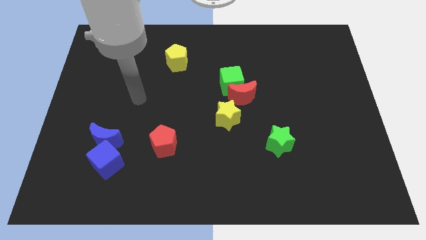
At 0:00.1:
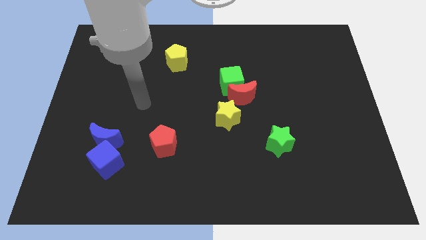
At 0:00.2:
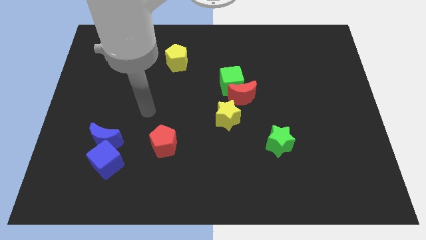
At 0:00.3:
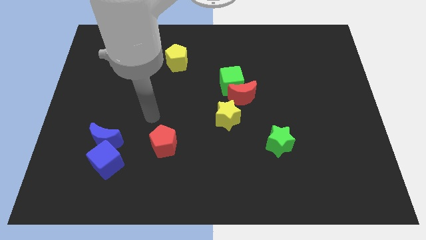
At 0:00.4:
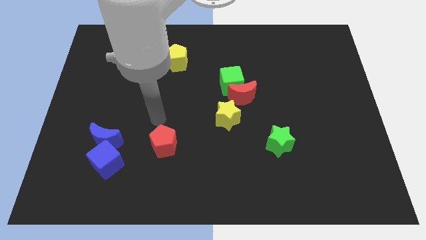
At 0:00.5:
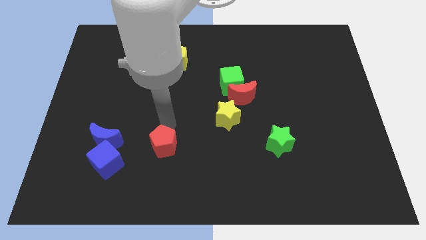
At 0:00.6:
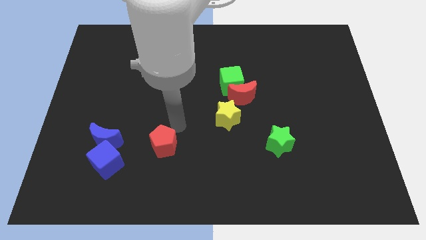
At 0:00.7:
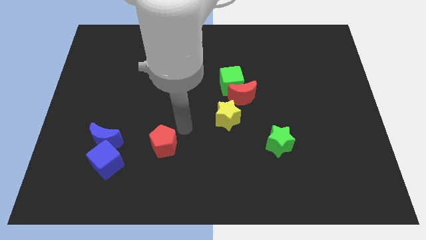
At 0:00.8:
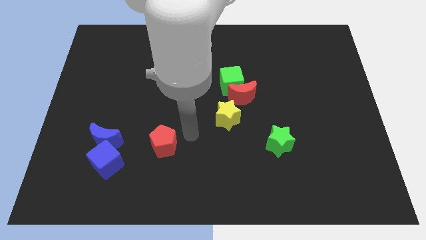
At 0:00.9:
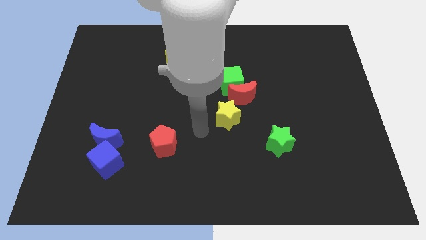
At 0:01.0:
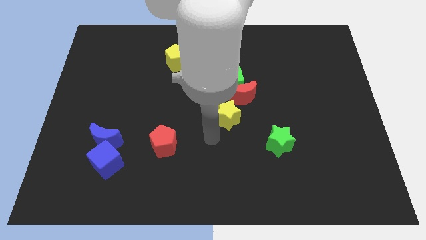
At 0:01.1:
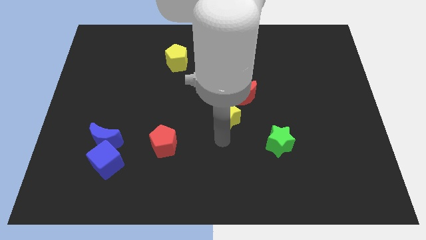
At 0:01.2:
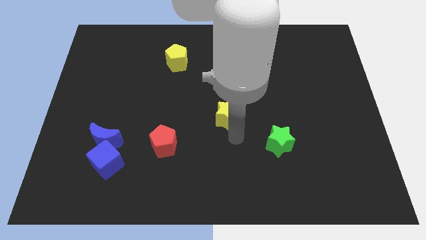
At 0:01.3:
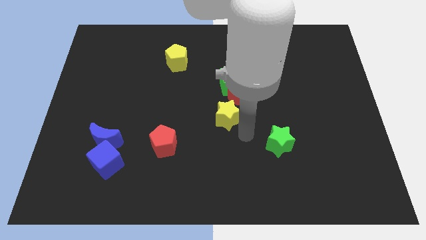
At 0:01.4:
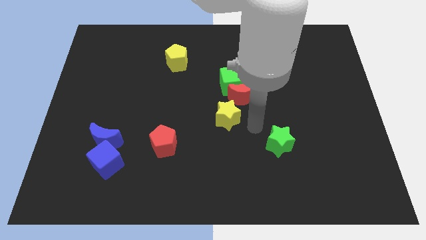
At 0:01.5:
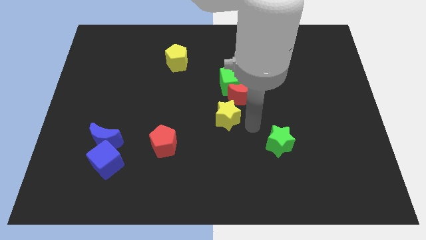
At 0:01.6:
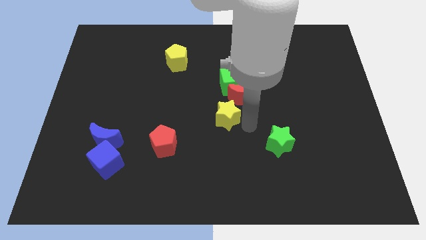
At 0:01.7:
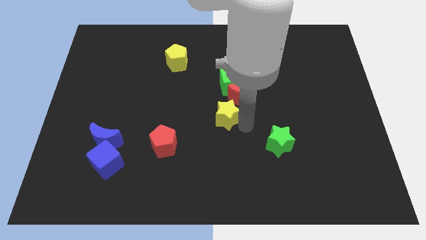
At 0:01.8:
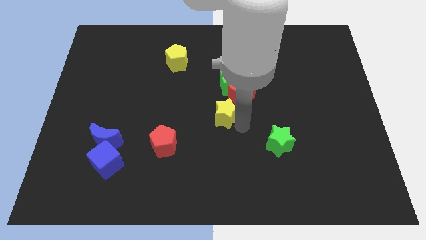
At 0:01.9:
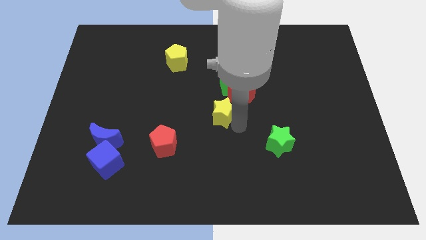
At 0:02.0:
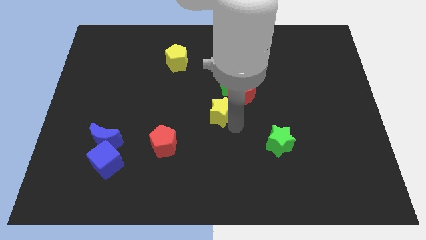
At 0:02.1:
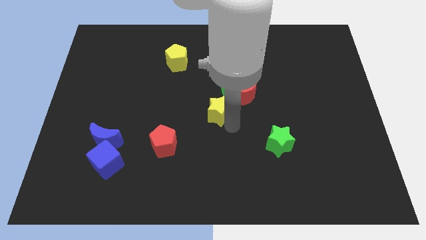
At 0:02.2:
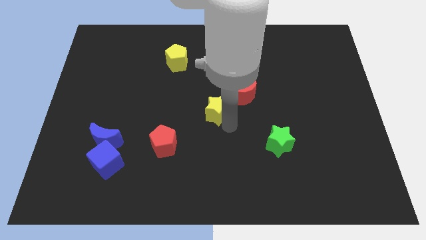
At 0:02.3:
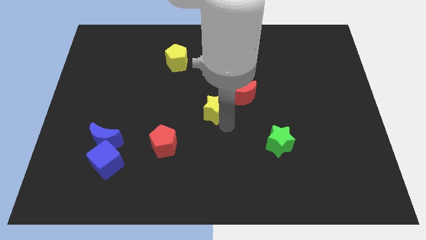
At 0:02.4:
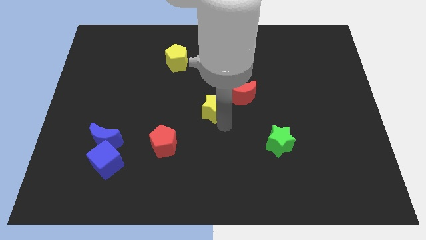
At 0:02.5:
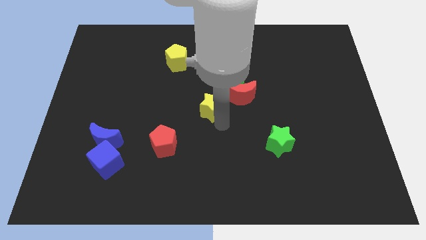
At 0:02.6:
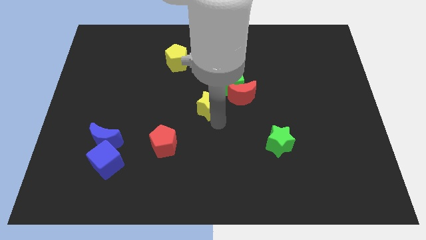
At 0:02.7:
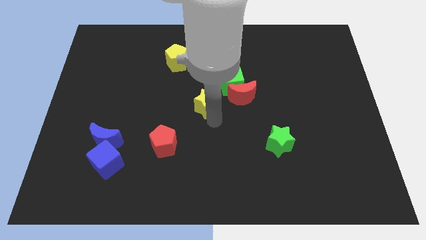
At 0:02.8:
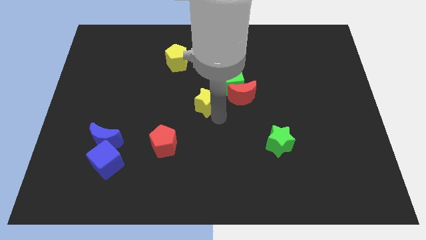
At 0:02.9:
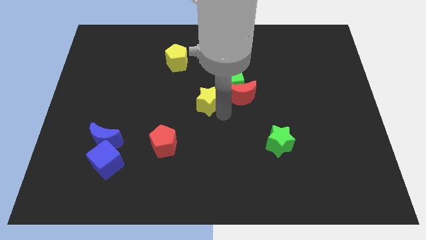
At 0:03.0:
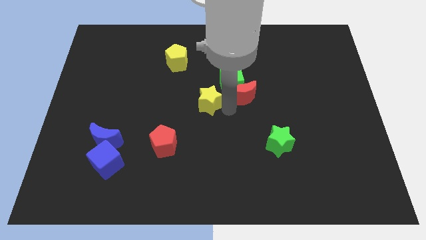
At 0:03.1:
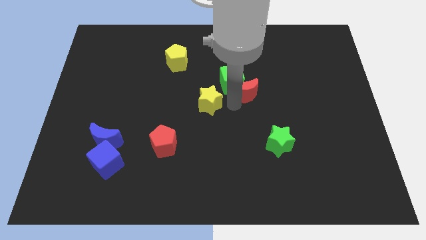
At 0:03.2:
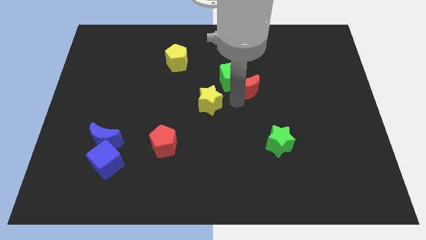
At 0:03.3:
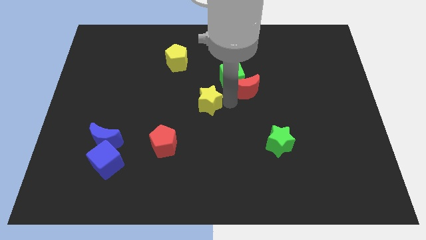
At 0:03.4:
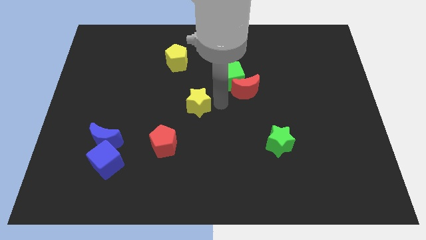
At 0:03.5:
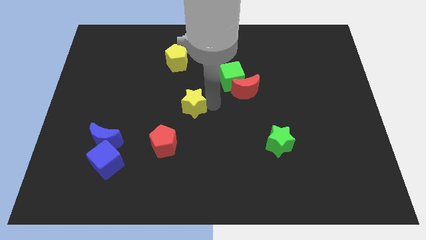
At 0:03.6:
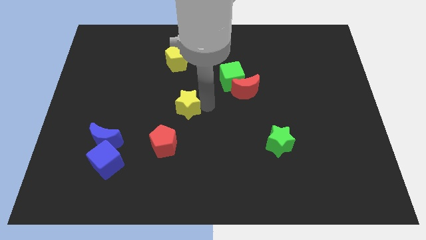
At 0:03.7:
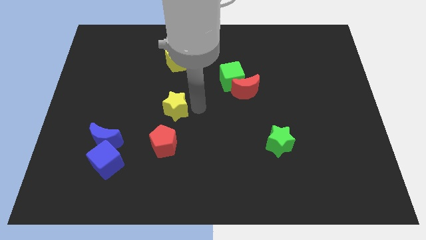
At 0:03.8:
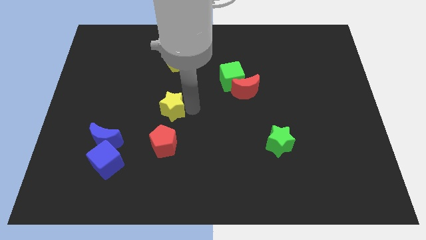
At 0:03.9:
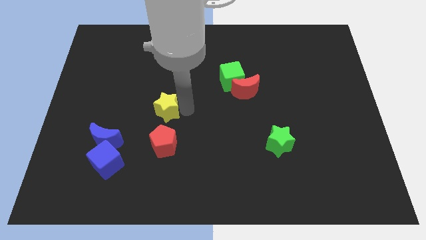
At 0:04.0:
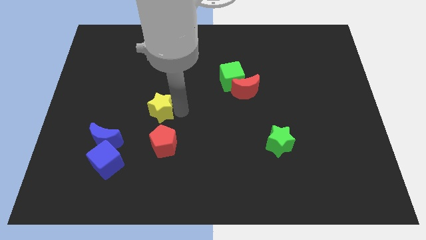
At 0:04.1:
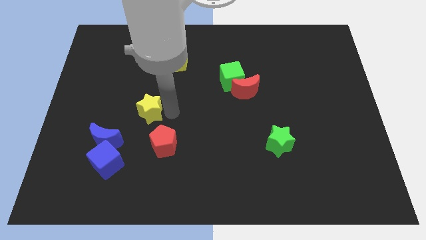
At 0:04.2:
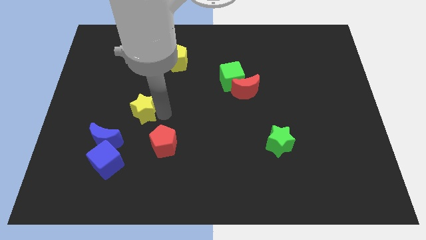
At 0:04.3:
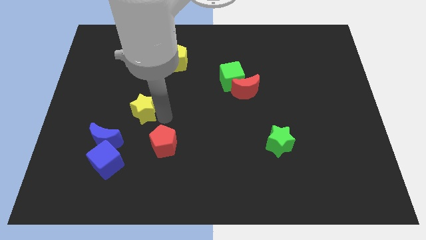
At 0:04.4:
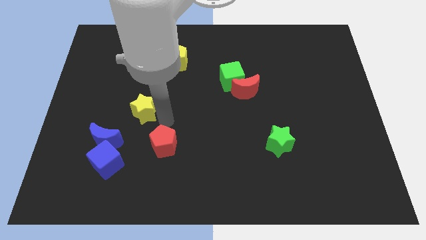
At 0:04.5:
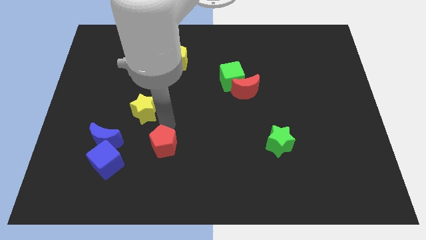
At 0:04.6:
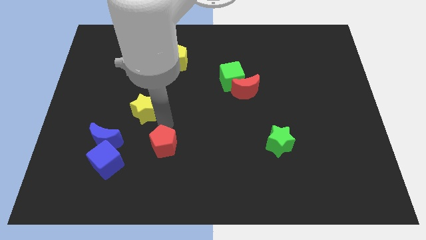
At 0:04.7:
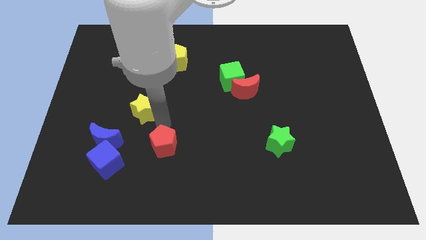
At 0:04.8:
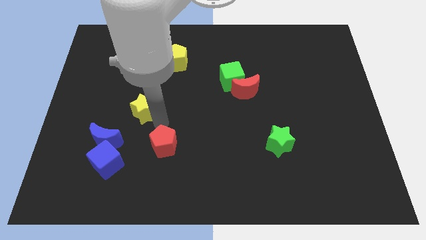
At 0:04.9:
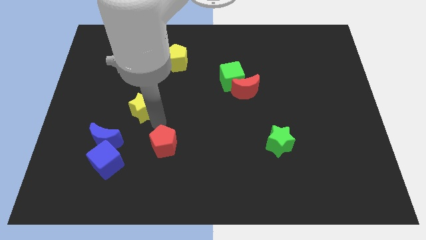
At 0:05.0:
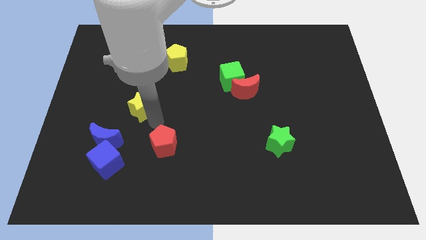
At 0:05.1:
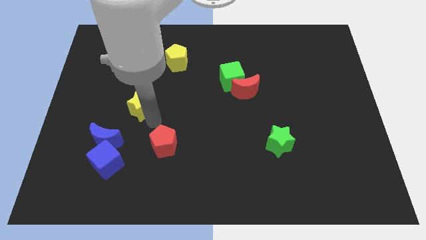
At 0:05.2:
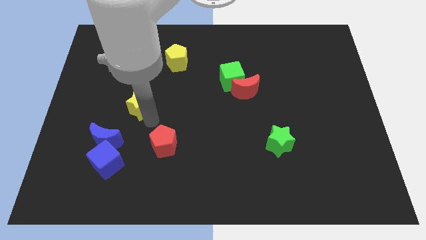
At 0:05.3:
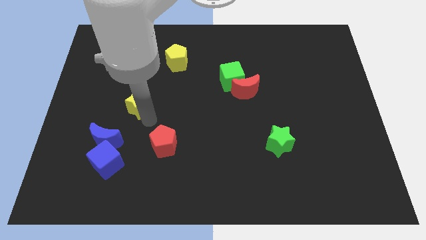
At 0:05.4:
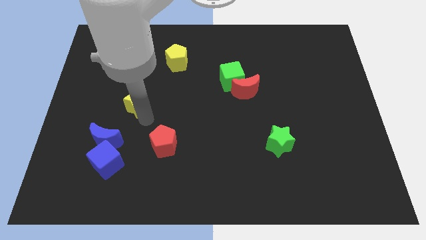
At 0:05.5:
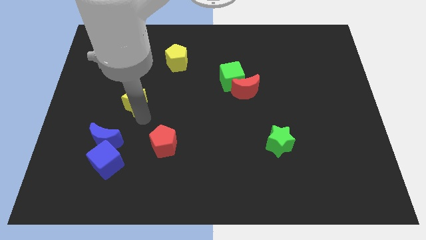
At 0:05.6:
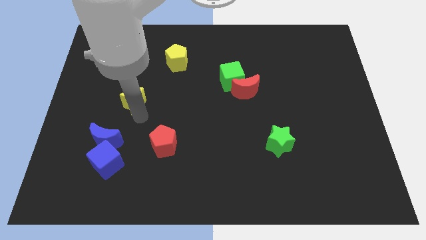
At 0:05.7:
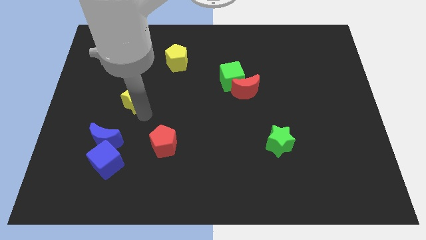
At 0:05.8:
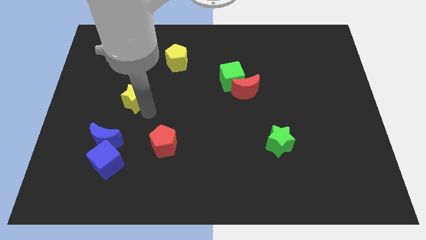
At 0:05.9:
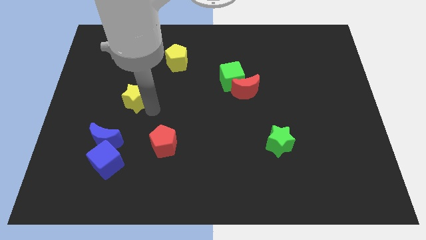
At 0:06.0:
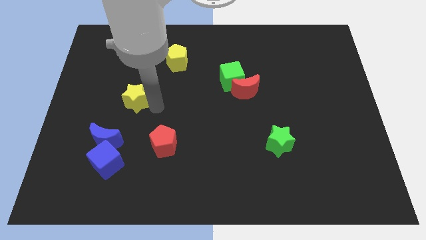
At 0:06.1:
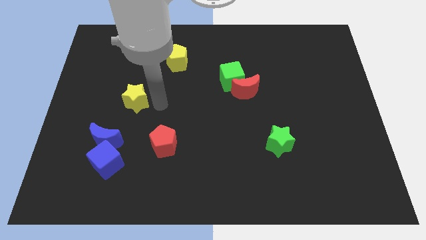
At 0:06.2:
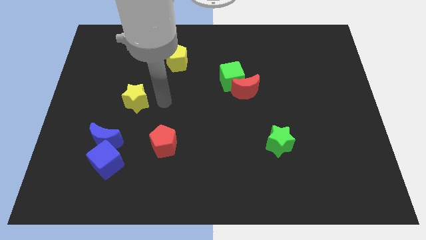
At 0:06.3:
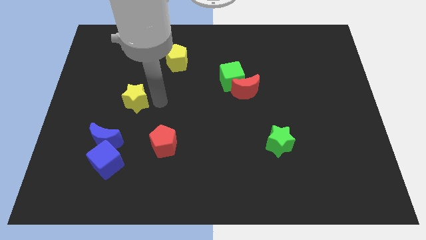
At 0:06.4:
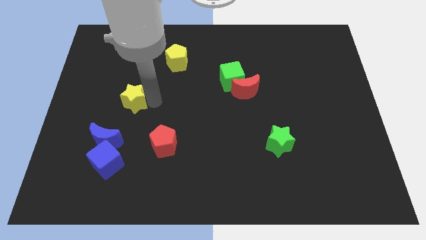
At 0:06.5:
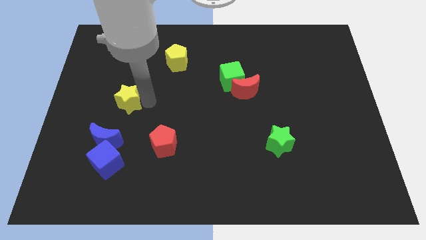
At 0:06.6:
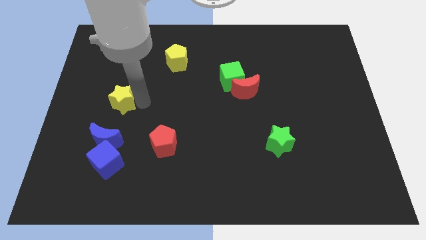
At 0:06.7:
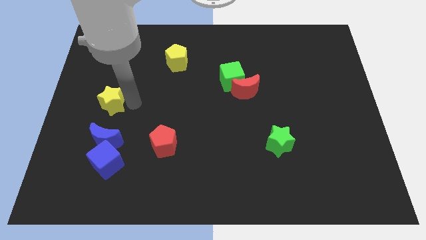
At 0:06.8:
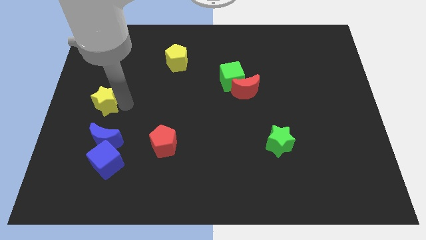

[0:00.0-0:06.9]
slide the yellow star to the left side of the board

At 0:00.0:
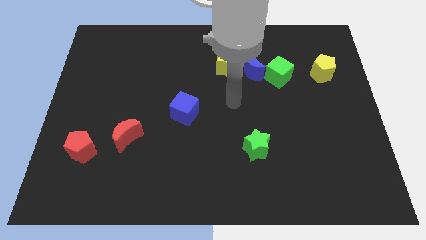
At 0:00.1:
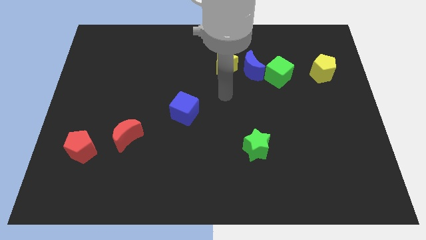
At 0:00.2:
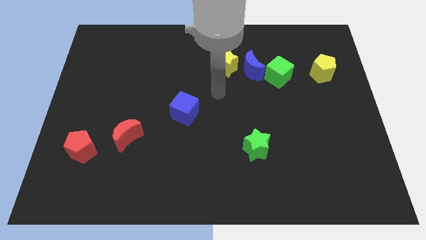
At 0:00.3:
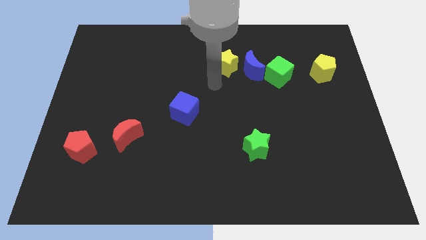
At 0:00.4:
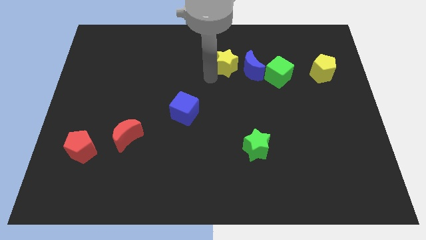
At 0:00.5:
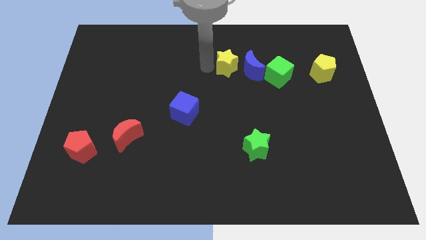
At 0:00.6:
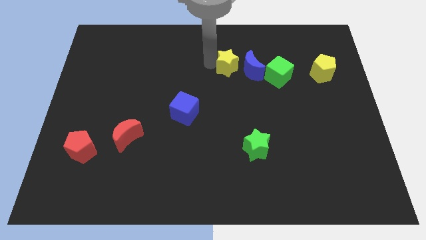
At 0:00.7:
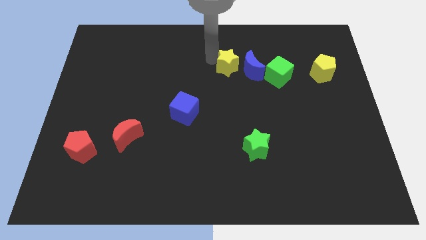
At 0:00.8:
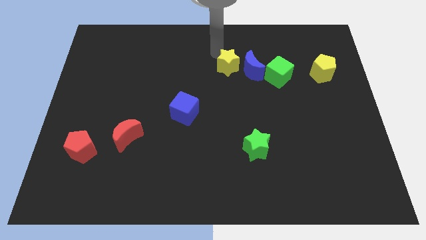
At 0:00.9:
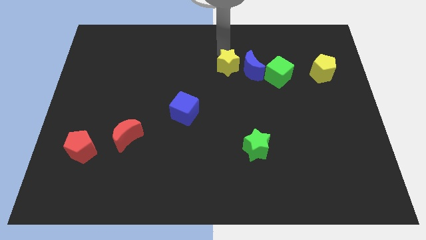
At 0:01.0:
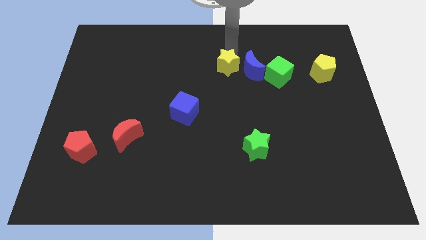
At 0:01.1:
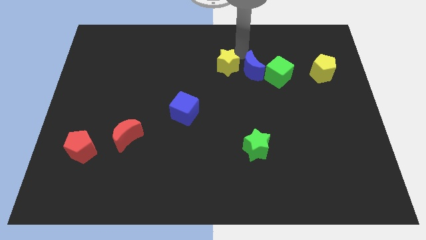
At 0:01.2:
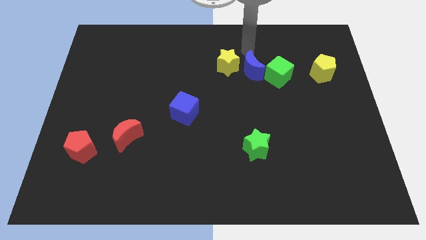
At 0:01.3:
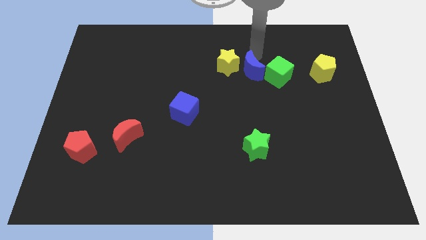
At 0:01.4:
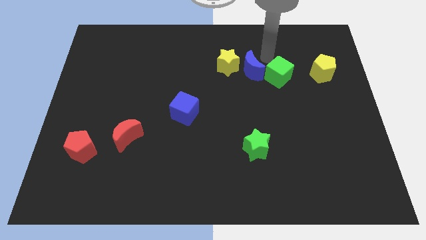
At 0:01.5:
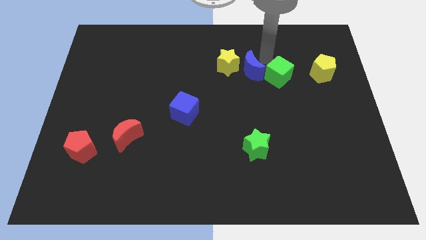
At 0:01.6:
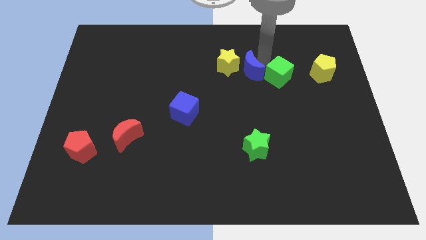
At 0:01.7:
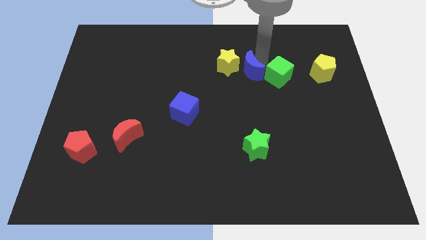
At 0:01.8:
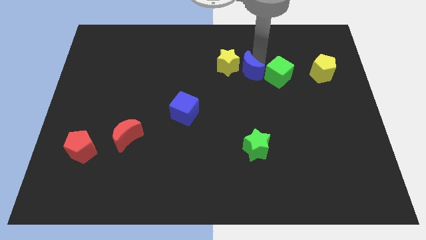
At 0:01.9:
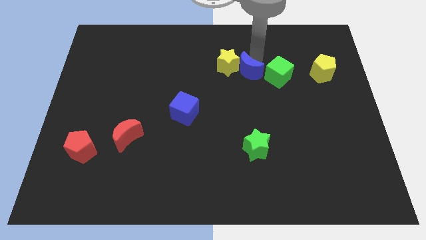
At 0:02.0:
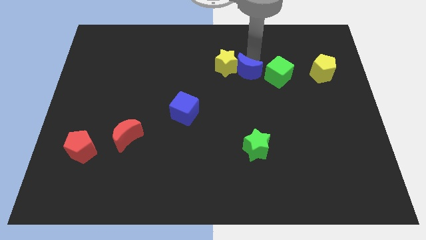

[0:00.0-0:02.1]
put the blue moon to the center of the board
